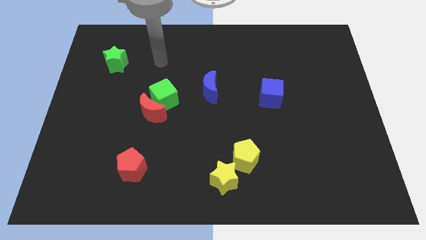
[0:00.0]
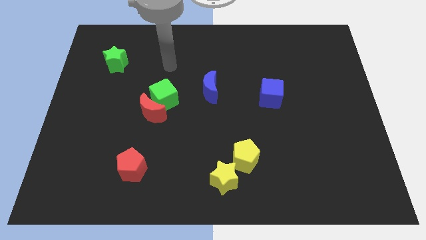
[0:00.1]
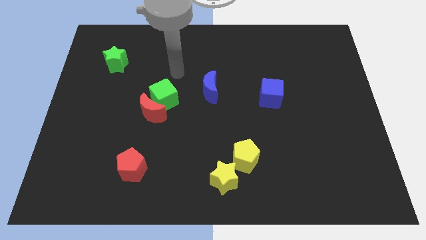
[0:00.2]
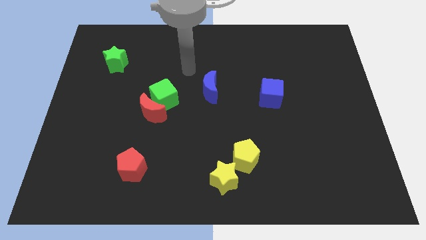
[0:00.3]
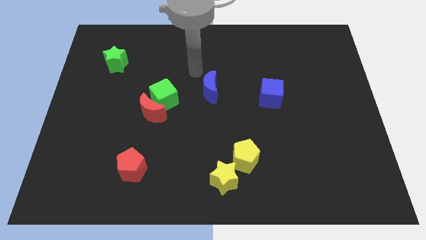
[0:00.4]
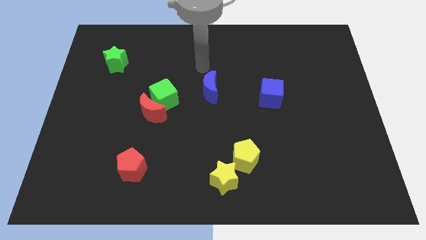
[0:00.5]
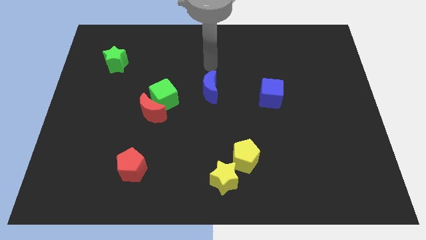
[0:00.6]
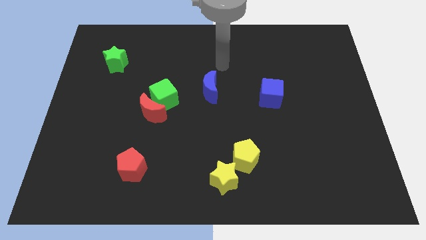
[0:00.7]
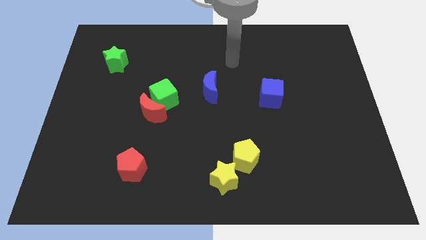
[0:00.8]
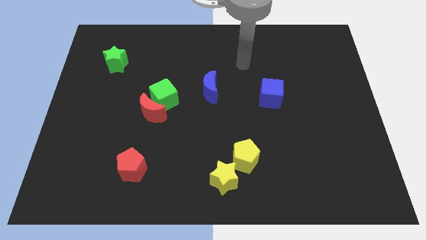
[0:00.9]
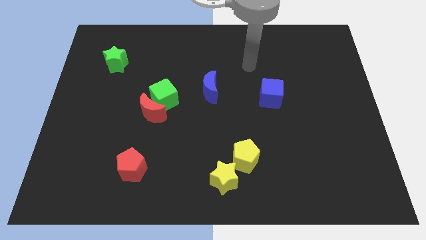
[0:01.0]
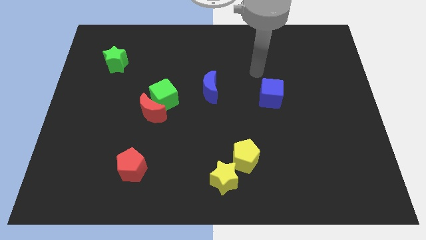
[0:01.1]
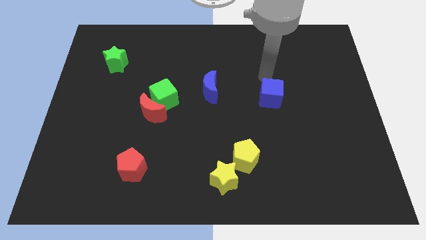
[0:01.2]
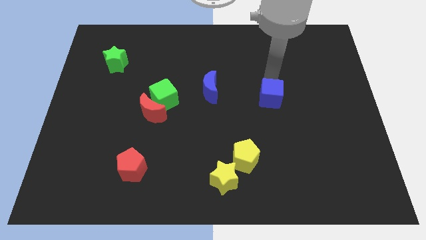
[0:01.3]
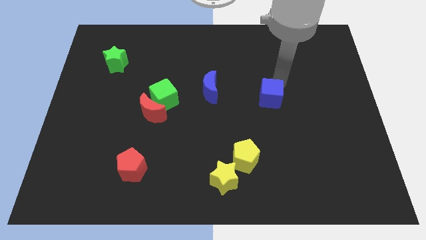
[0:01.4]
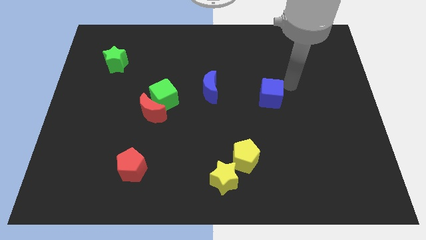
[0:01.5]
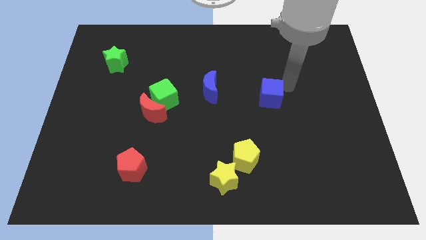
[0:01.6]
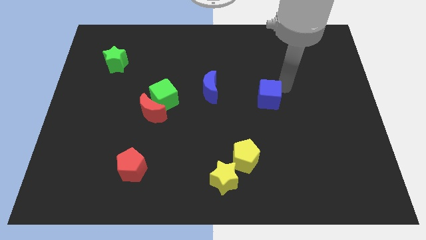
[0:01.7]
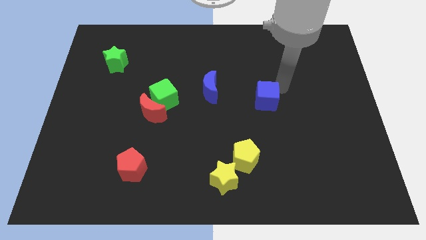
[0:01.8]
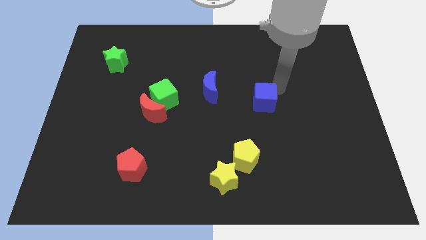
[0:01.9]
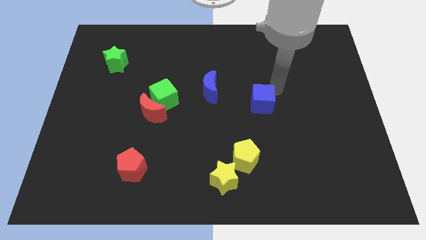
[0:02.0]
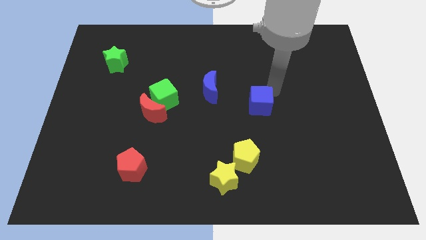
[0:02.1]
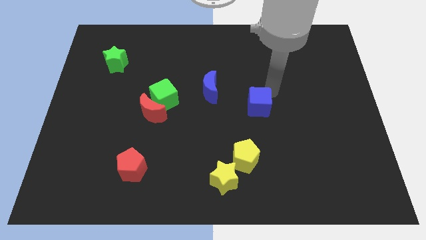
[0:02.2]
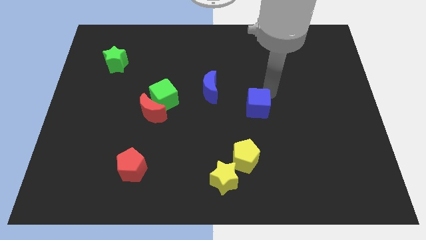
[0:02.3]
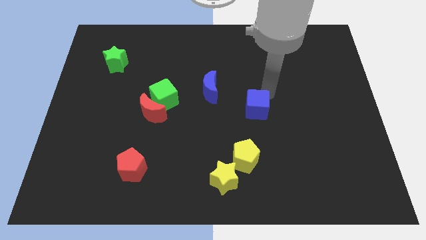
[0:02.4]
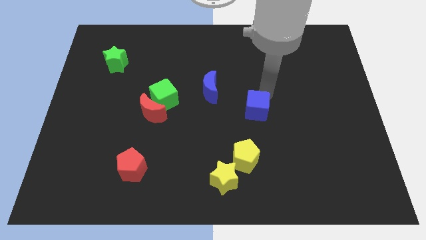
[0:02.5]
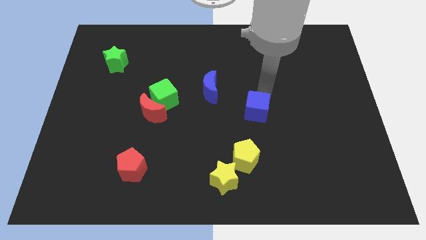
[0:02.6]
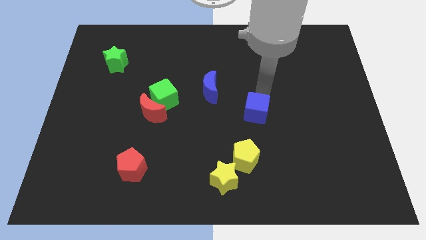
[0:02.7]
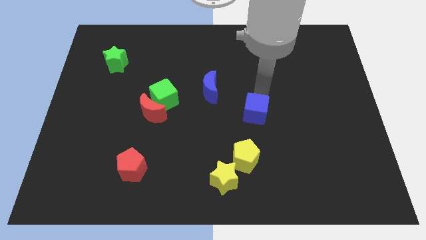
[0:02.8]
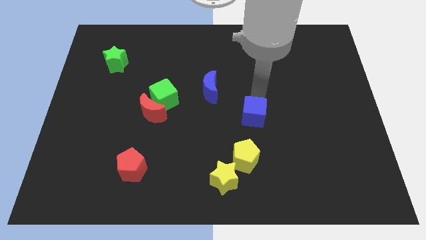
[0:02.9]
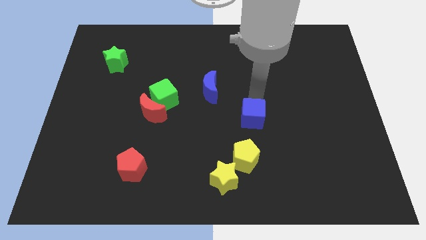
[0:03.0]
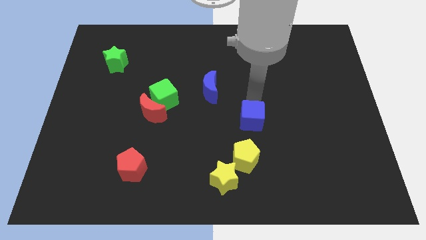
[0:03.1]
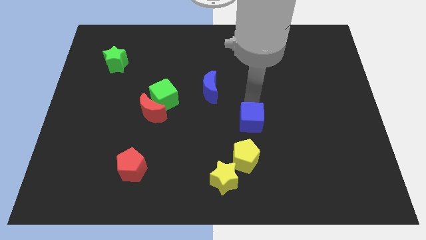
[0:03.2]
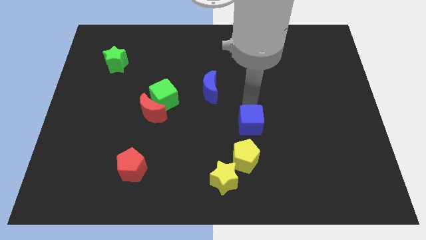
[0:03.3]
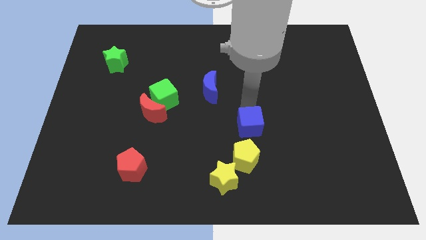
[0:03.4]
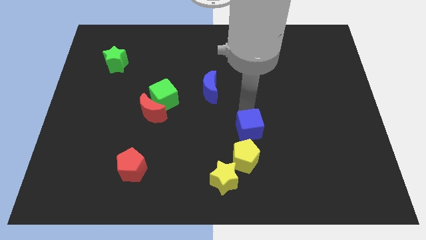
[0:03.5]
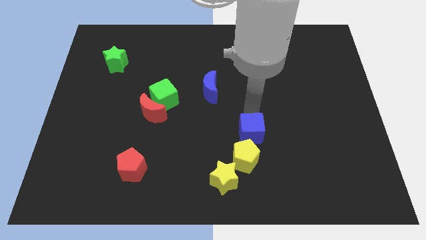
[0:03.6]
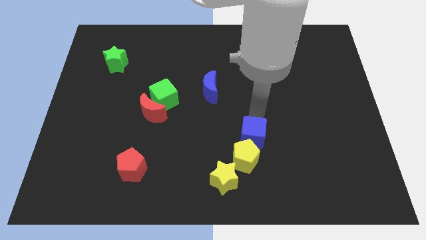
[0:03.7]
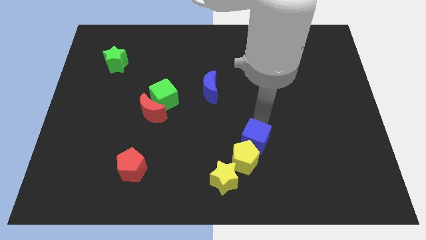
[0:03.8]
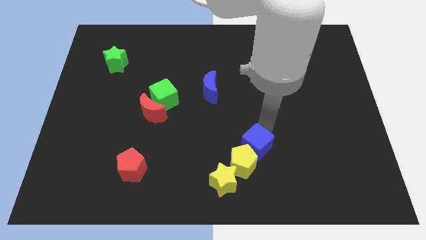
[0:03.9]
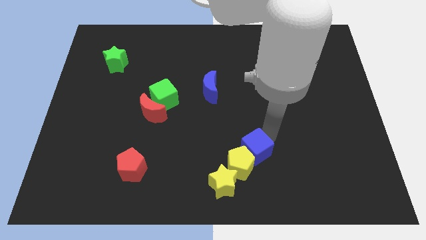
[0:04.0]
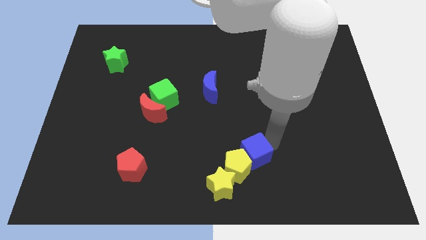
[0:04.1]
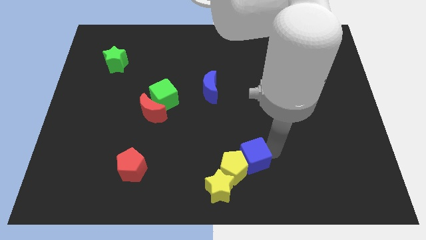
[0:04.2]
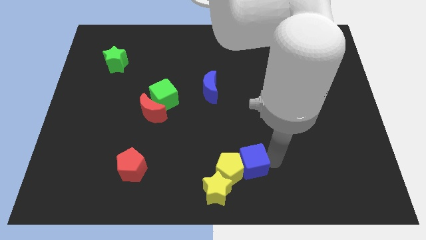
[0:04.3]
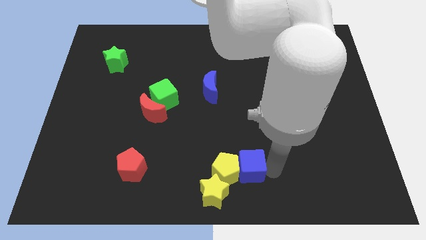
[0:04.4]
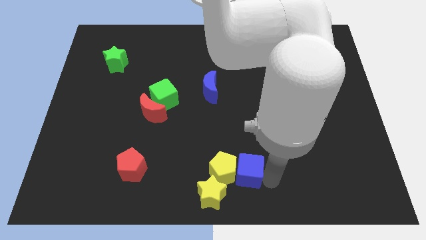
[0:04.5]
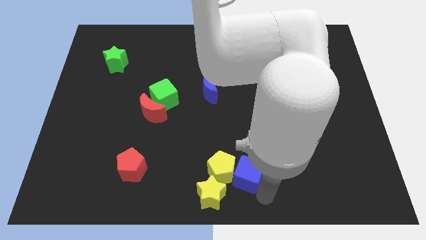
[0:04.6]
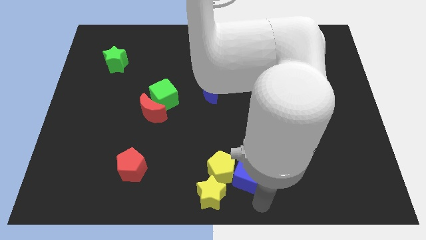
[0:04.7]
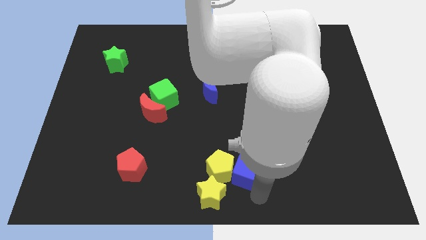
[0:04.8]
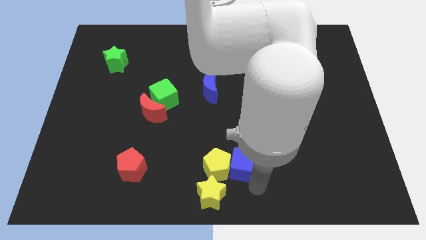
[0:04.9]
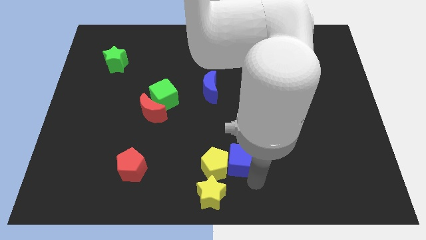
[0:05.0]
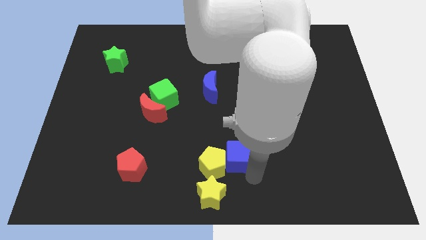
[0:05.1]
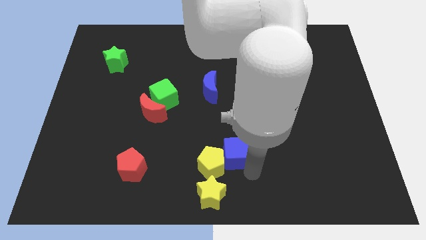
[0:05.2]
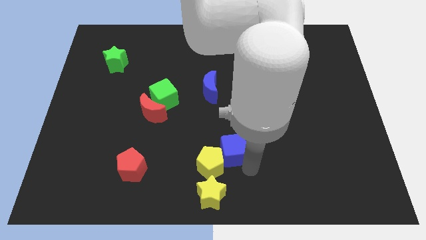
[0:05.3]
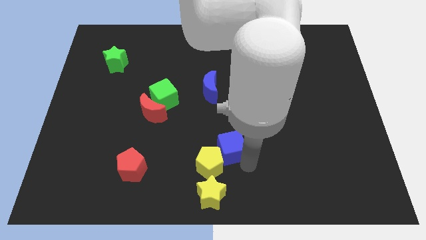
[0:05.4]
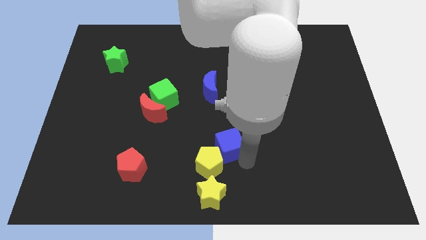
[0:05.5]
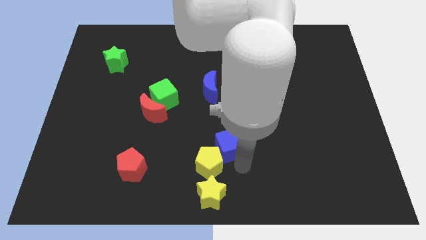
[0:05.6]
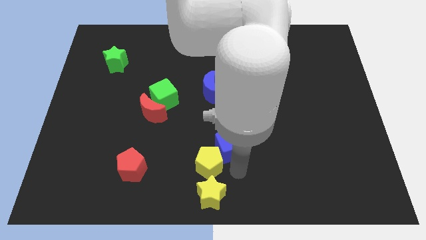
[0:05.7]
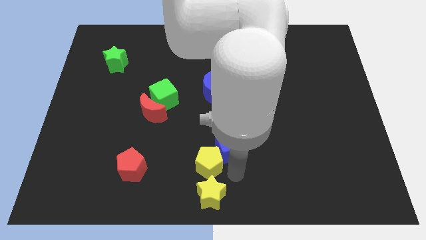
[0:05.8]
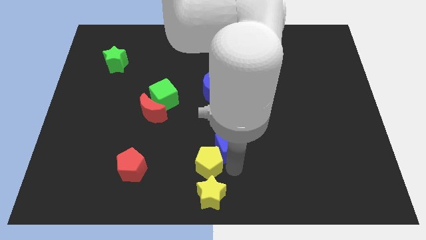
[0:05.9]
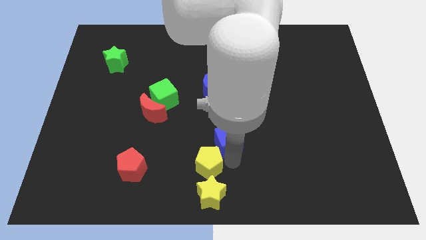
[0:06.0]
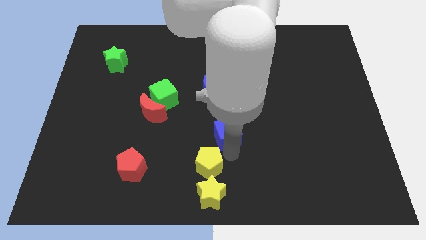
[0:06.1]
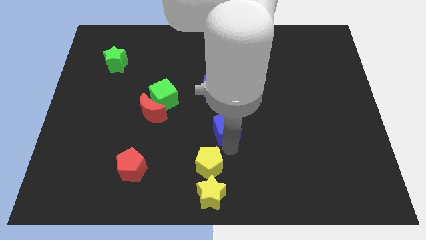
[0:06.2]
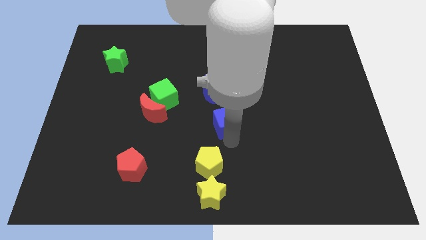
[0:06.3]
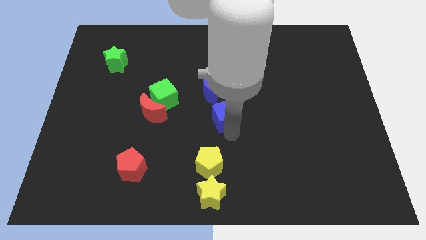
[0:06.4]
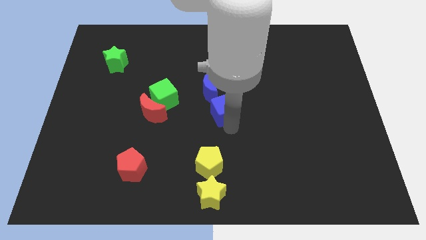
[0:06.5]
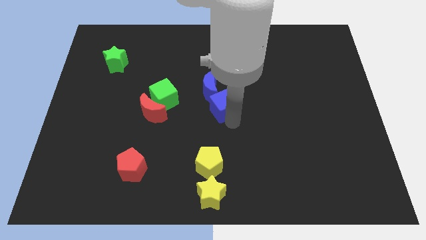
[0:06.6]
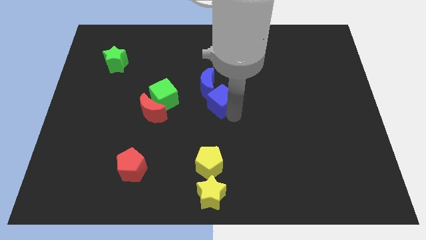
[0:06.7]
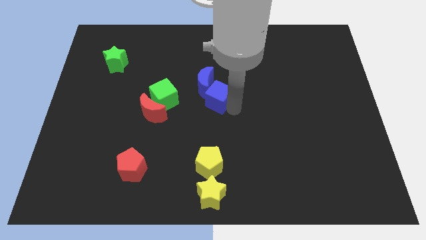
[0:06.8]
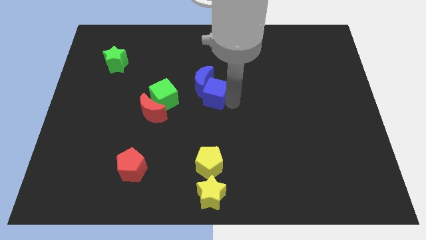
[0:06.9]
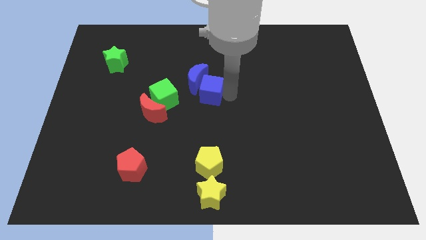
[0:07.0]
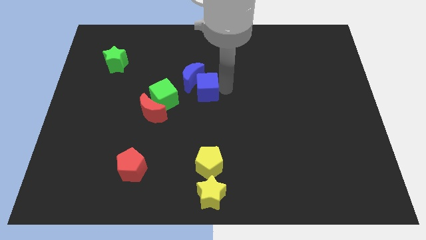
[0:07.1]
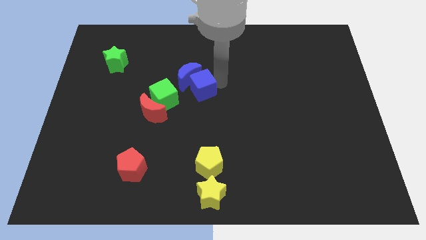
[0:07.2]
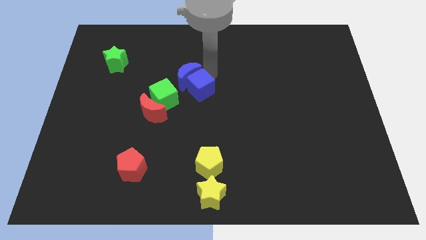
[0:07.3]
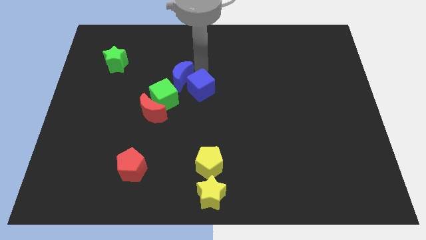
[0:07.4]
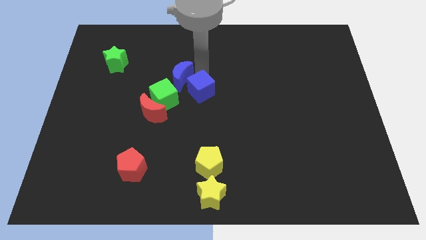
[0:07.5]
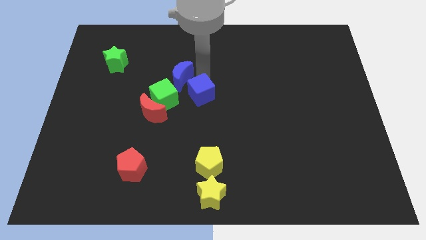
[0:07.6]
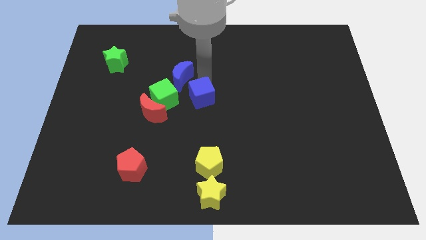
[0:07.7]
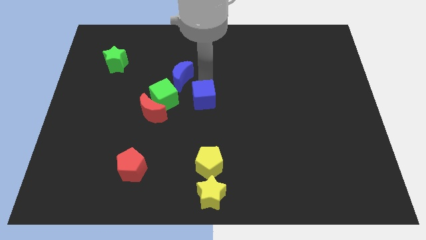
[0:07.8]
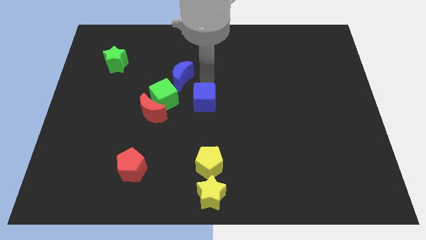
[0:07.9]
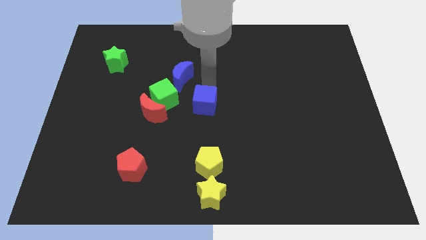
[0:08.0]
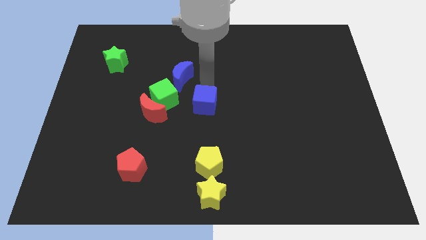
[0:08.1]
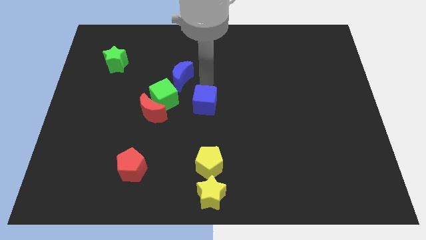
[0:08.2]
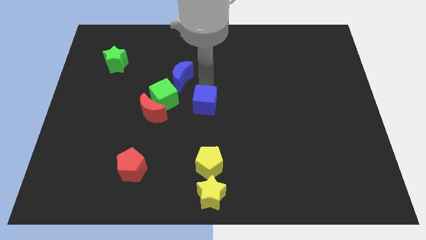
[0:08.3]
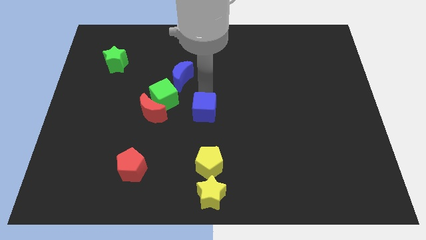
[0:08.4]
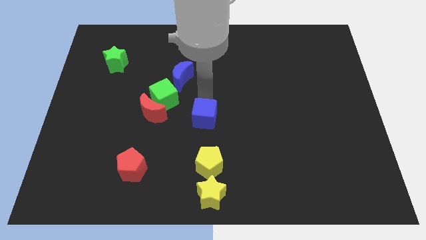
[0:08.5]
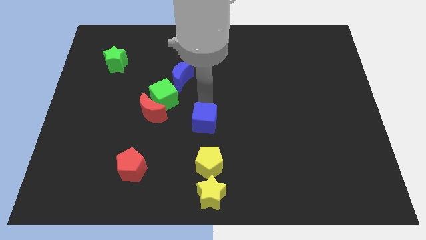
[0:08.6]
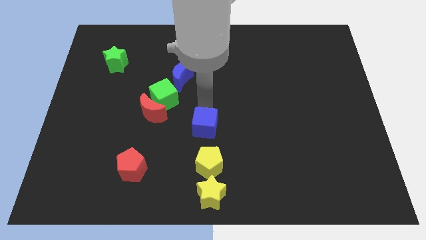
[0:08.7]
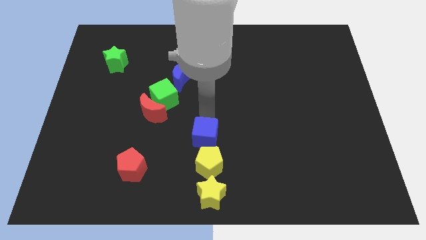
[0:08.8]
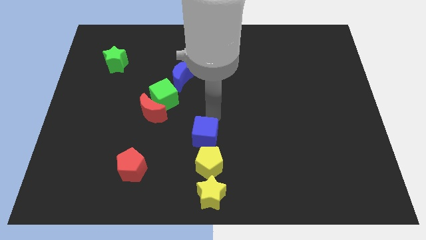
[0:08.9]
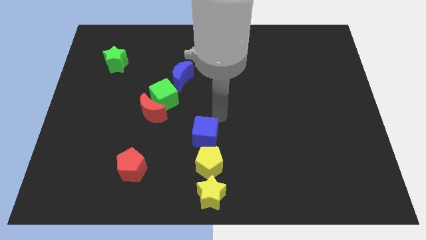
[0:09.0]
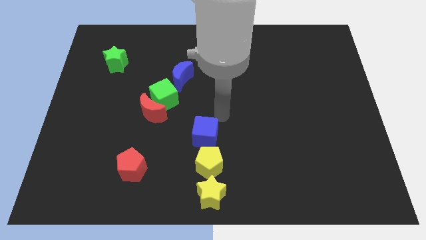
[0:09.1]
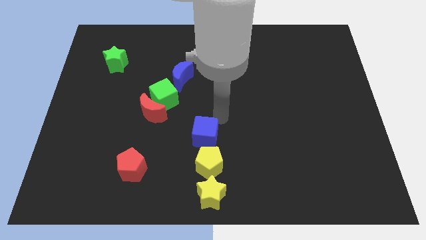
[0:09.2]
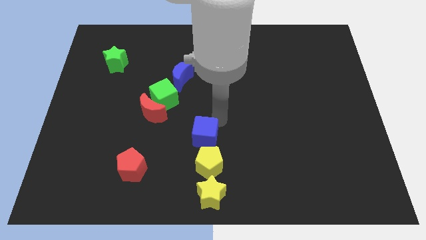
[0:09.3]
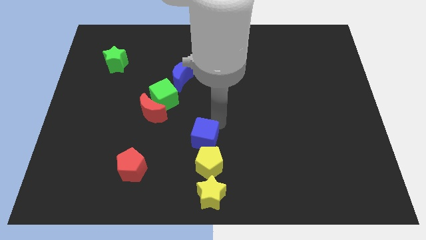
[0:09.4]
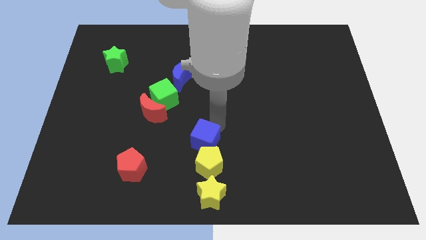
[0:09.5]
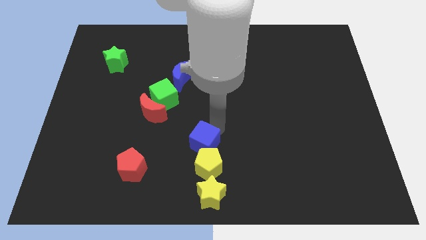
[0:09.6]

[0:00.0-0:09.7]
push the blue cube down and to the left diagonally
